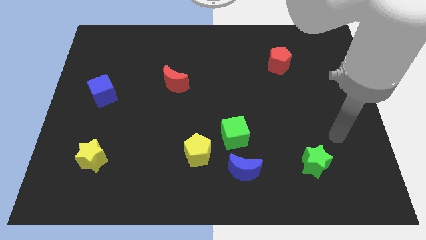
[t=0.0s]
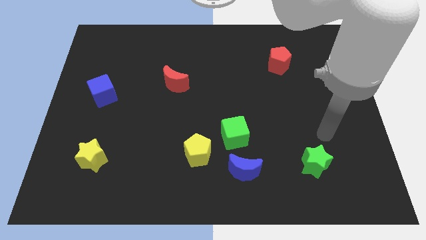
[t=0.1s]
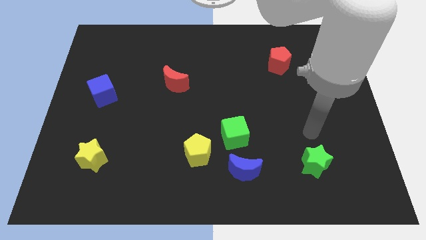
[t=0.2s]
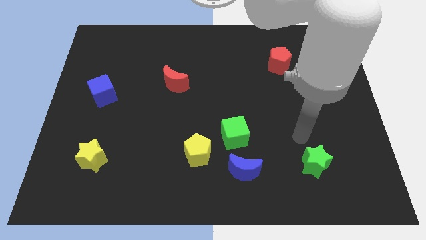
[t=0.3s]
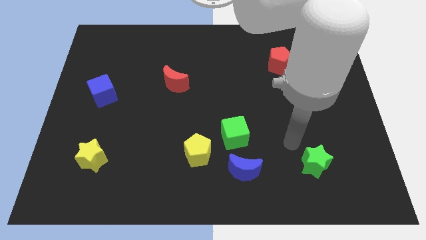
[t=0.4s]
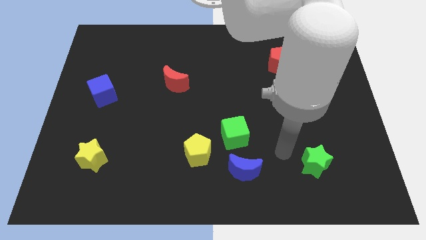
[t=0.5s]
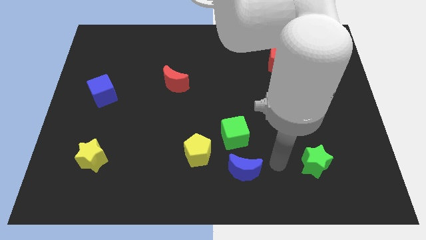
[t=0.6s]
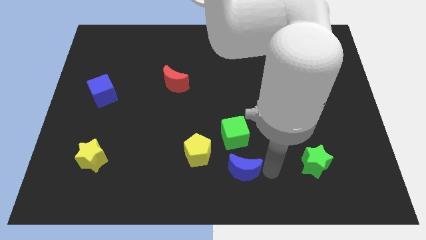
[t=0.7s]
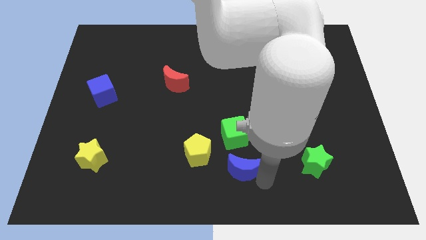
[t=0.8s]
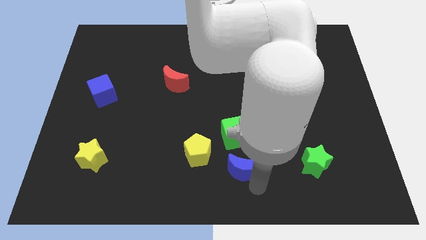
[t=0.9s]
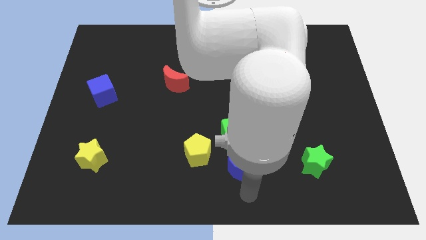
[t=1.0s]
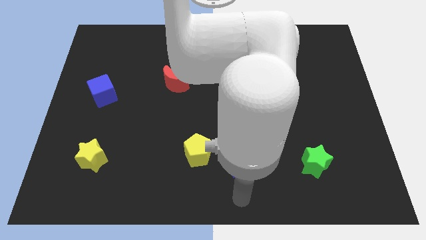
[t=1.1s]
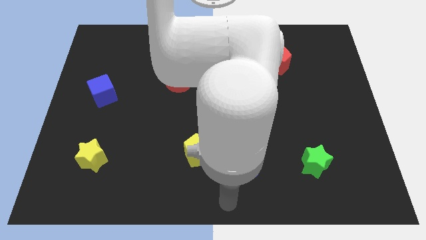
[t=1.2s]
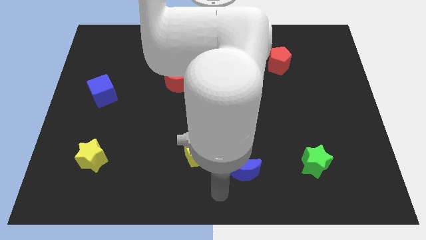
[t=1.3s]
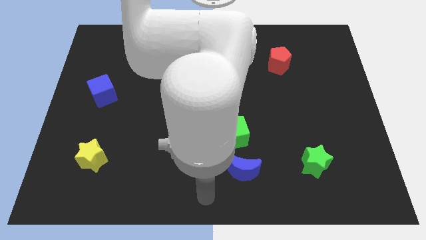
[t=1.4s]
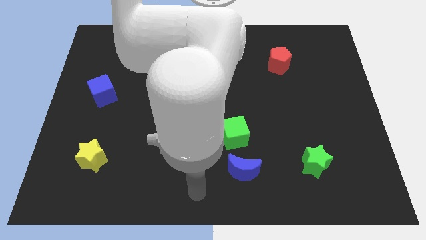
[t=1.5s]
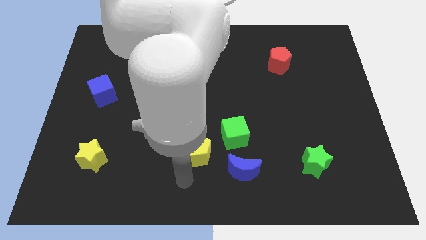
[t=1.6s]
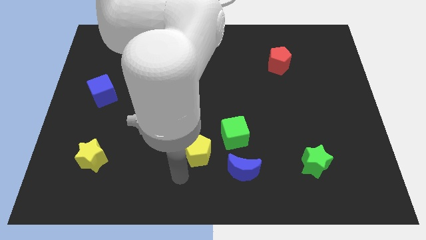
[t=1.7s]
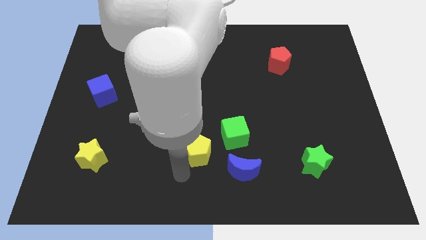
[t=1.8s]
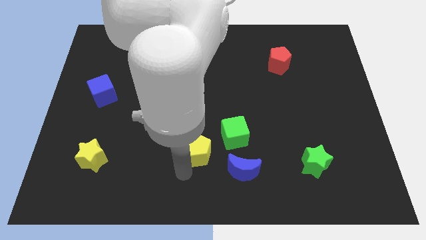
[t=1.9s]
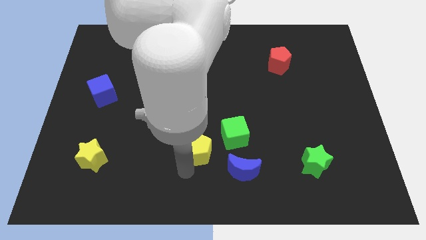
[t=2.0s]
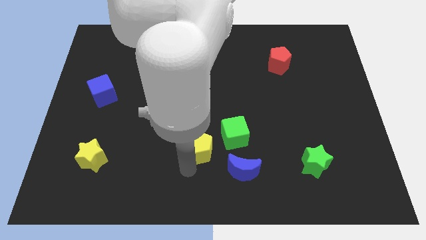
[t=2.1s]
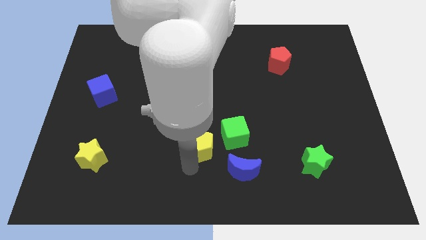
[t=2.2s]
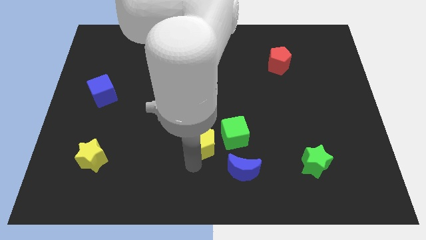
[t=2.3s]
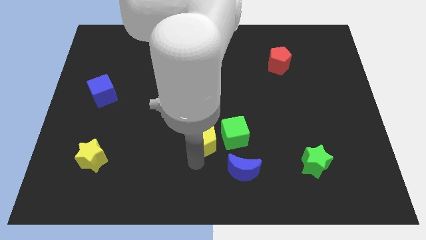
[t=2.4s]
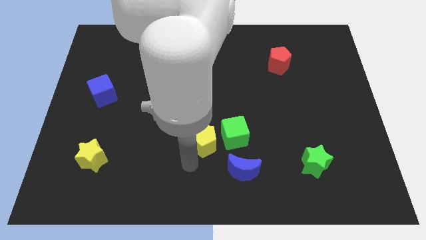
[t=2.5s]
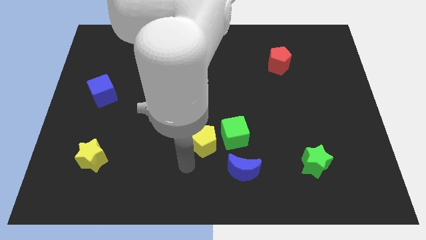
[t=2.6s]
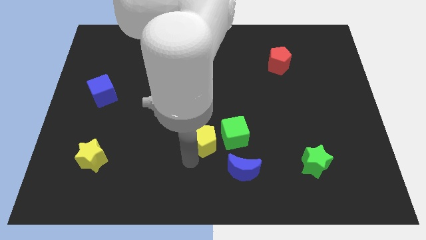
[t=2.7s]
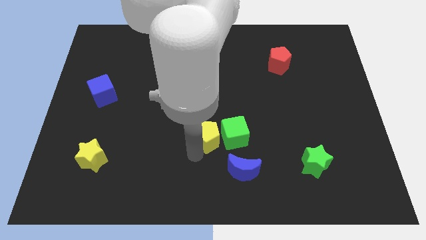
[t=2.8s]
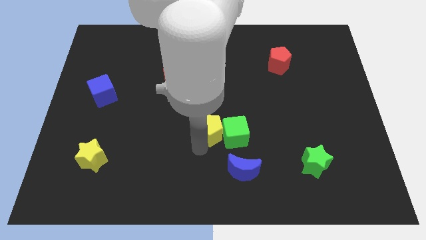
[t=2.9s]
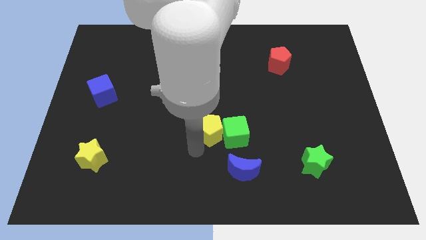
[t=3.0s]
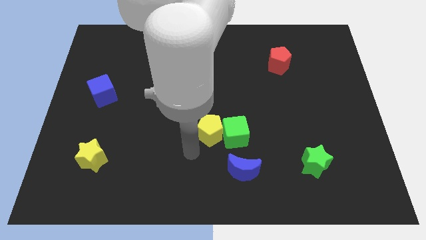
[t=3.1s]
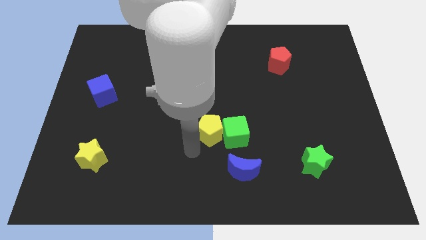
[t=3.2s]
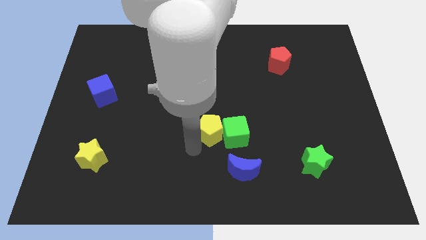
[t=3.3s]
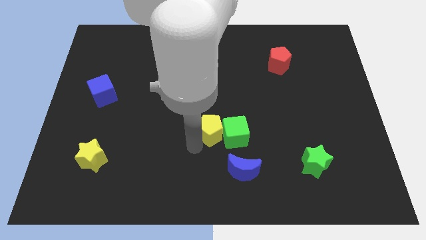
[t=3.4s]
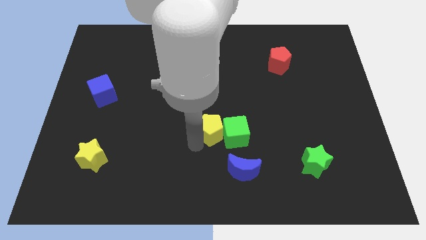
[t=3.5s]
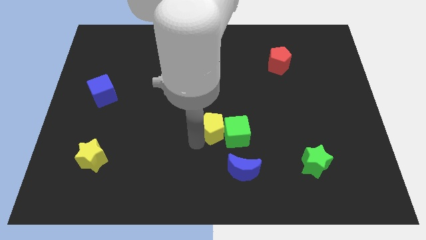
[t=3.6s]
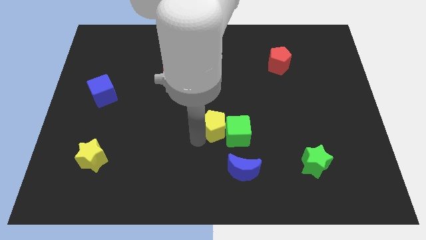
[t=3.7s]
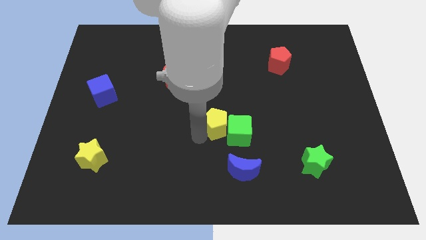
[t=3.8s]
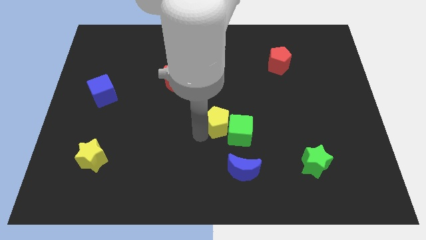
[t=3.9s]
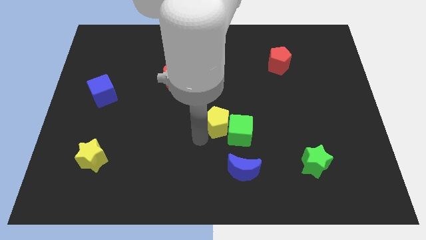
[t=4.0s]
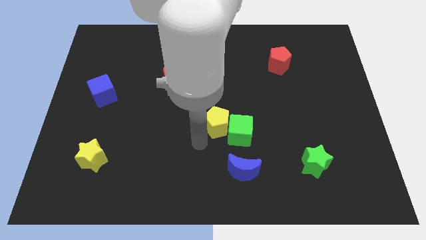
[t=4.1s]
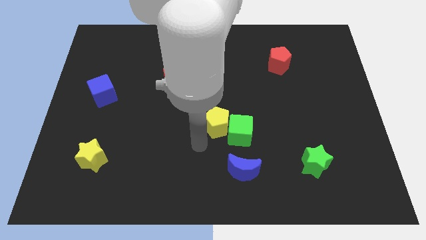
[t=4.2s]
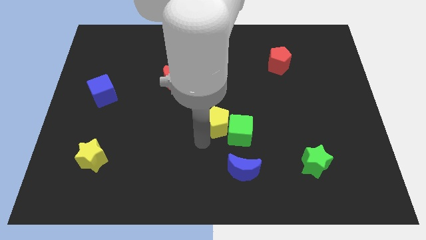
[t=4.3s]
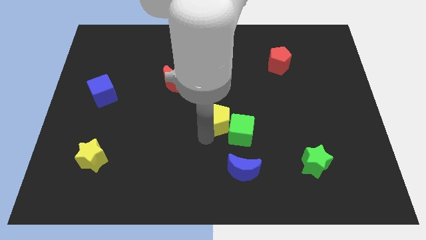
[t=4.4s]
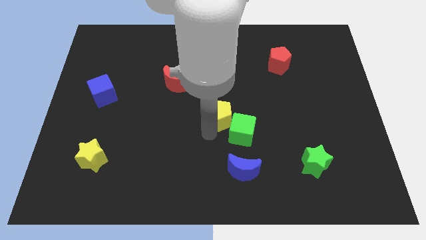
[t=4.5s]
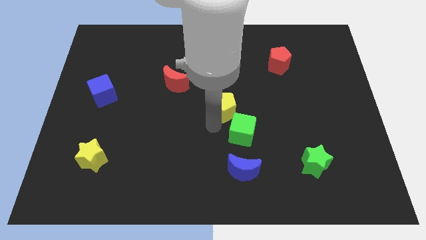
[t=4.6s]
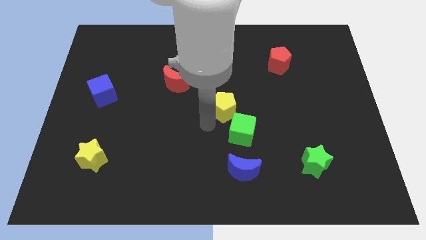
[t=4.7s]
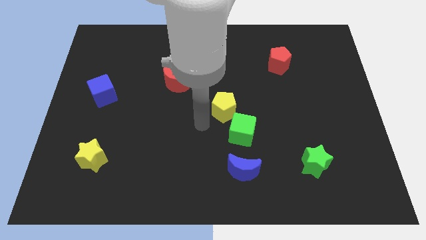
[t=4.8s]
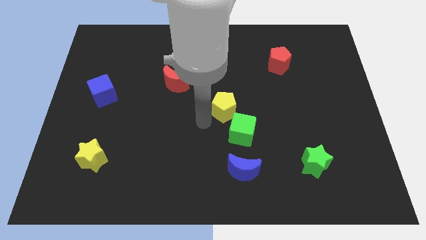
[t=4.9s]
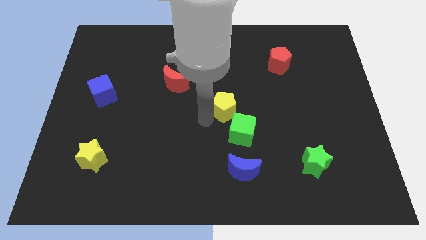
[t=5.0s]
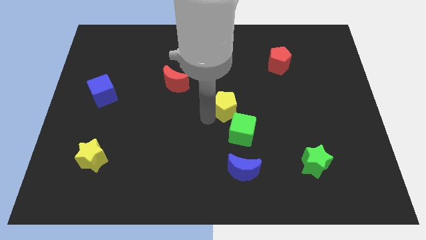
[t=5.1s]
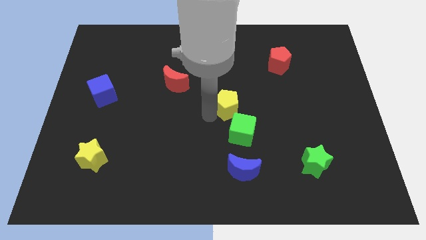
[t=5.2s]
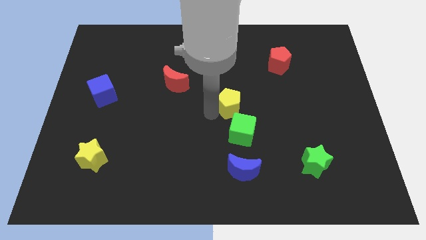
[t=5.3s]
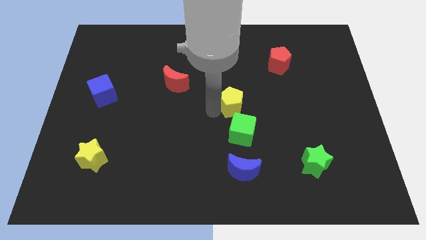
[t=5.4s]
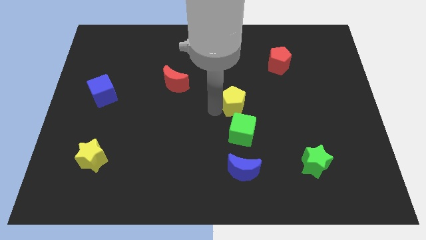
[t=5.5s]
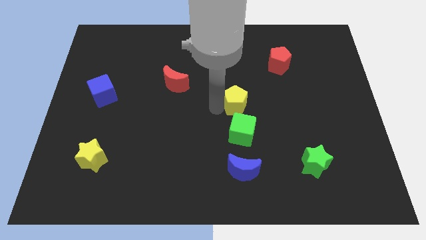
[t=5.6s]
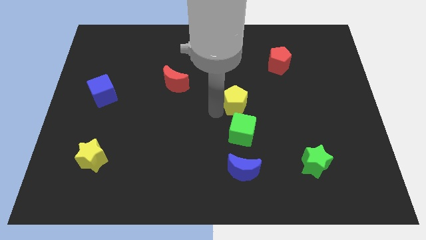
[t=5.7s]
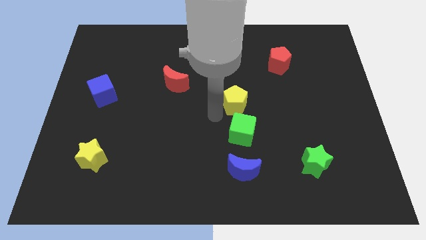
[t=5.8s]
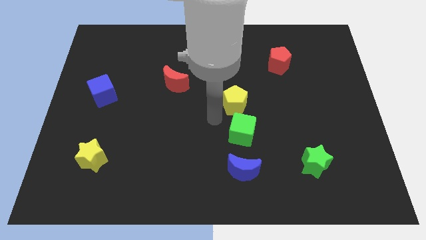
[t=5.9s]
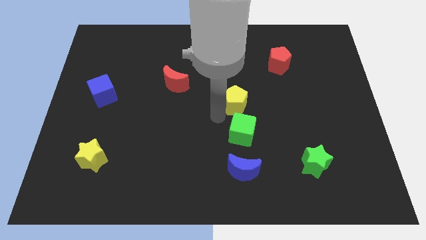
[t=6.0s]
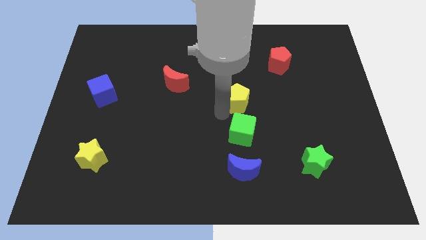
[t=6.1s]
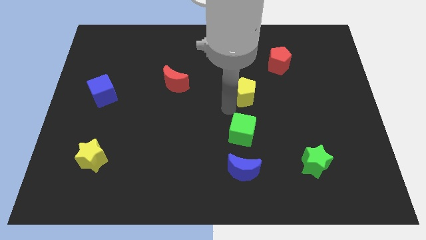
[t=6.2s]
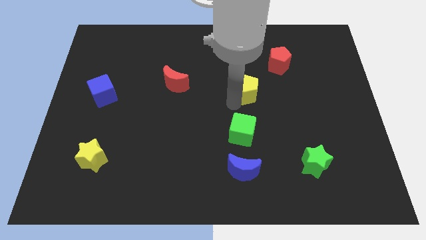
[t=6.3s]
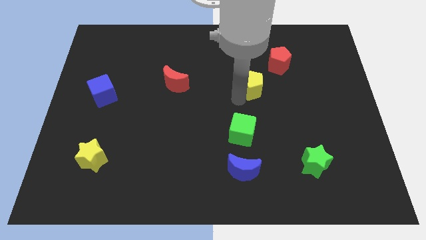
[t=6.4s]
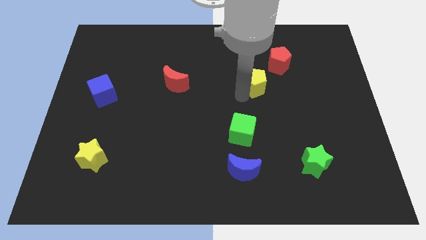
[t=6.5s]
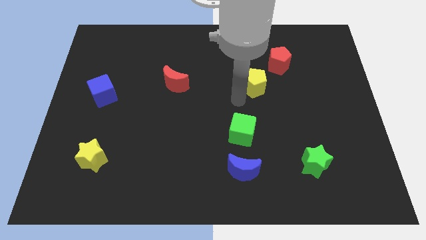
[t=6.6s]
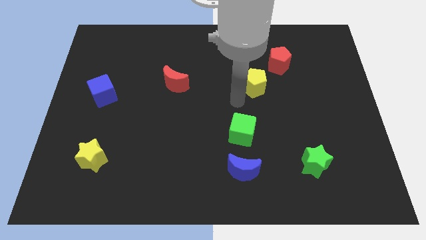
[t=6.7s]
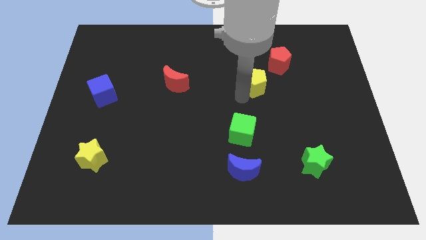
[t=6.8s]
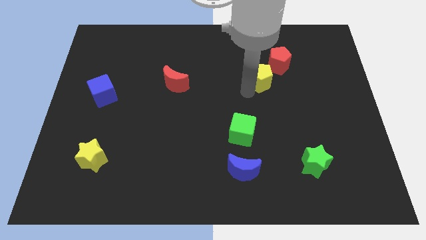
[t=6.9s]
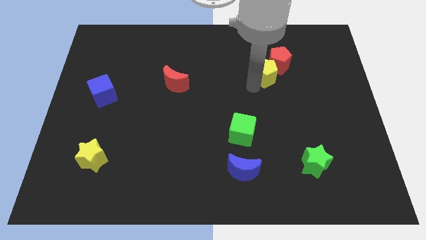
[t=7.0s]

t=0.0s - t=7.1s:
slide the yellow pentagon close to the red pentagon
